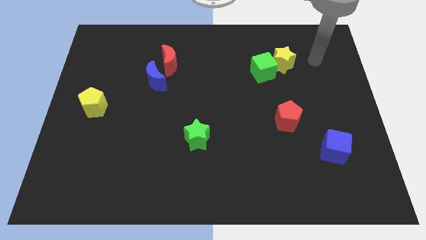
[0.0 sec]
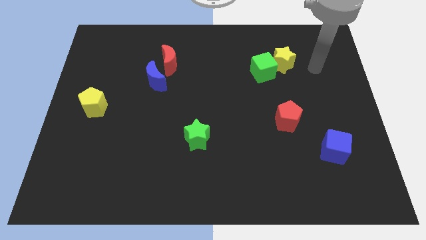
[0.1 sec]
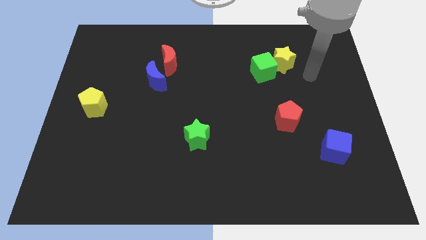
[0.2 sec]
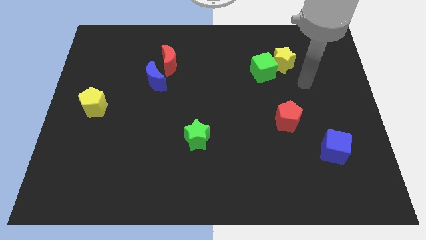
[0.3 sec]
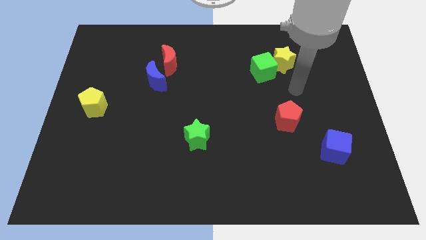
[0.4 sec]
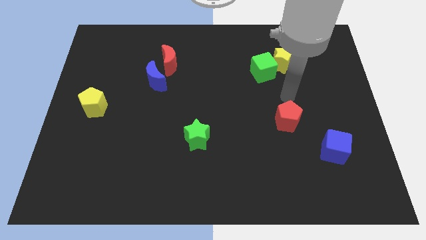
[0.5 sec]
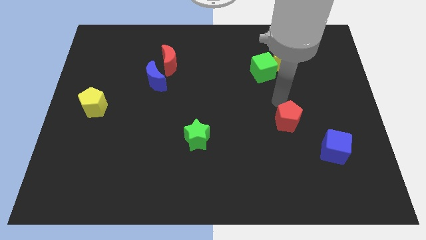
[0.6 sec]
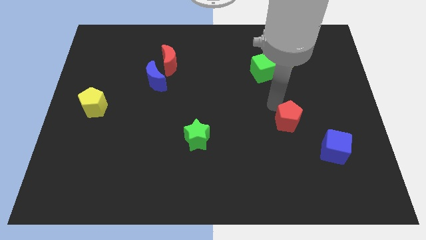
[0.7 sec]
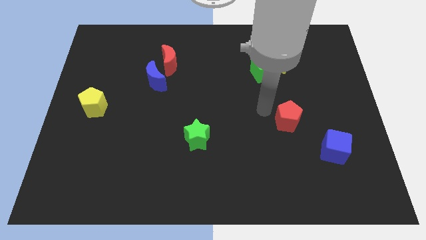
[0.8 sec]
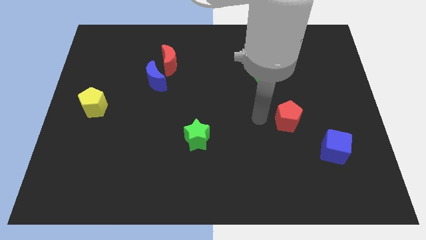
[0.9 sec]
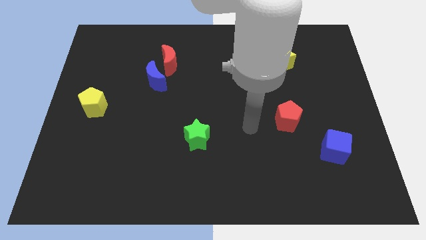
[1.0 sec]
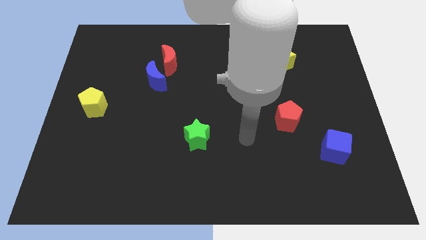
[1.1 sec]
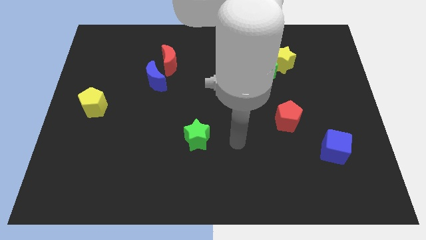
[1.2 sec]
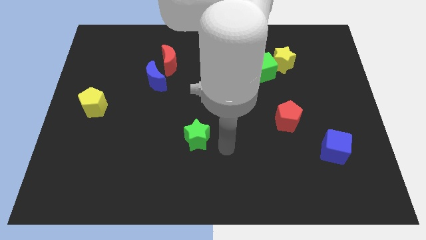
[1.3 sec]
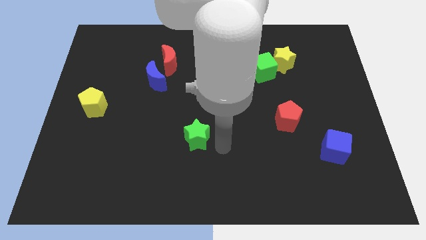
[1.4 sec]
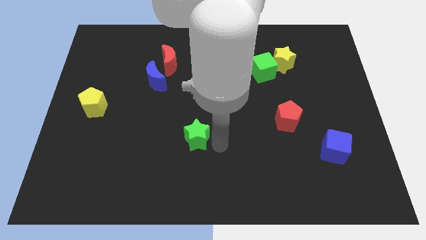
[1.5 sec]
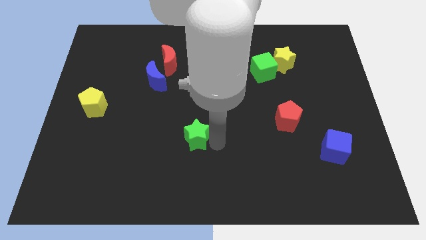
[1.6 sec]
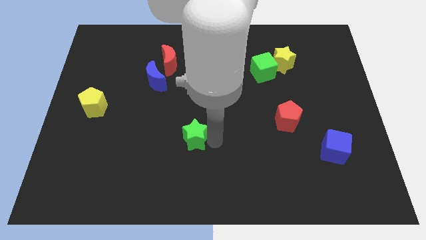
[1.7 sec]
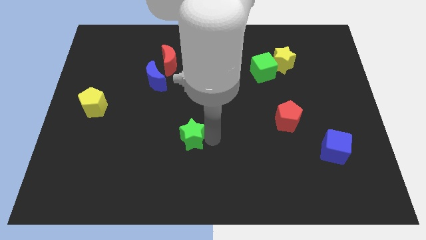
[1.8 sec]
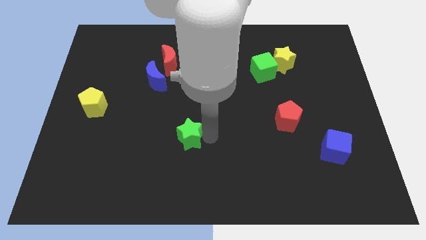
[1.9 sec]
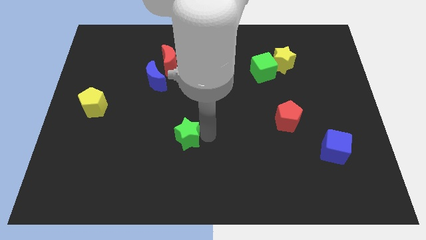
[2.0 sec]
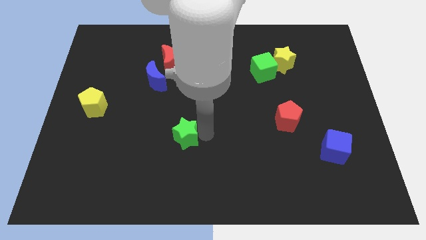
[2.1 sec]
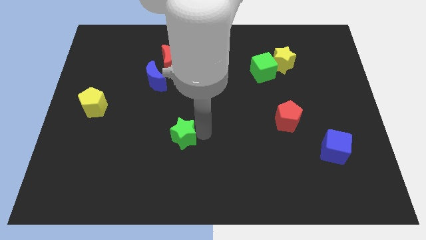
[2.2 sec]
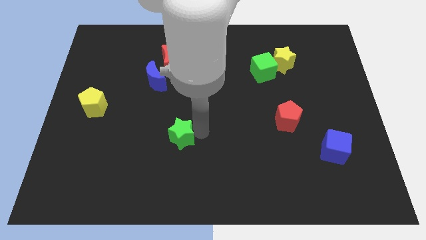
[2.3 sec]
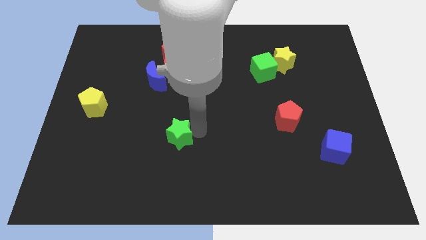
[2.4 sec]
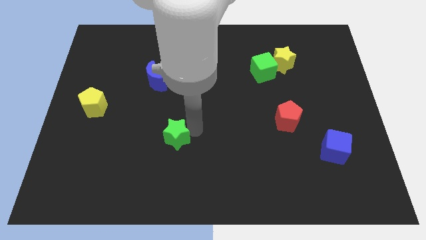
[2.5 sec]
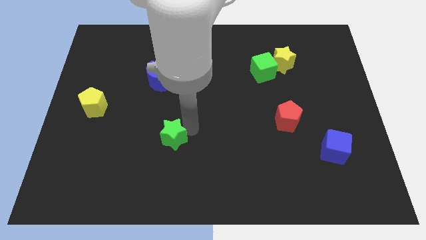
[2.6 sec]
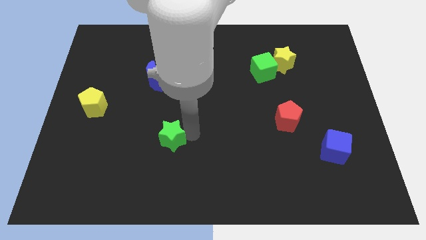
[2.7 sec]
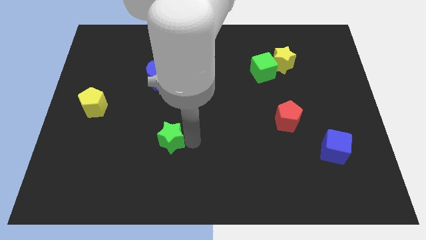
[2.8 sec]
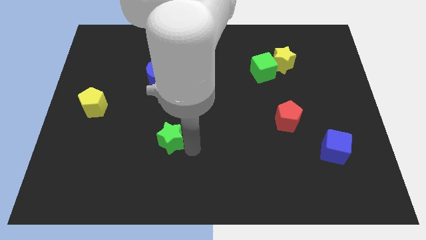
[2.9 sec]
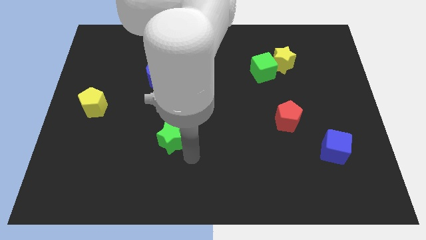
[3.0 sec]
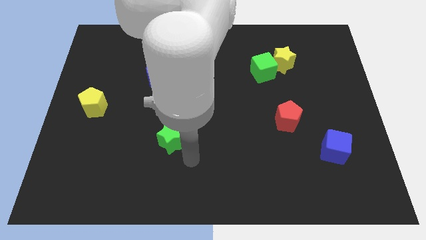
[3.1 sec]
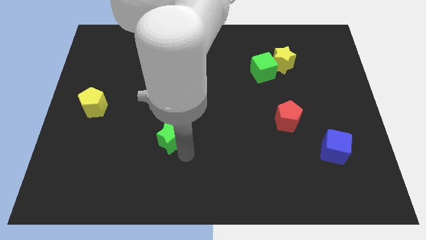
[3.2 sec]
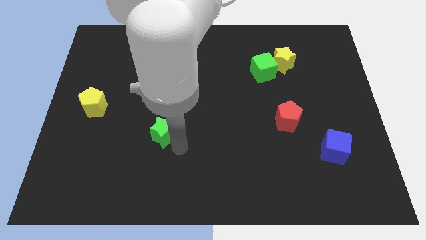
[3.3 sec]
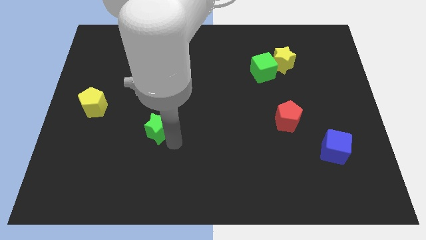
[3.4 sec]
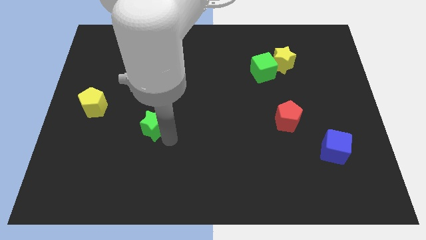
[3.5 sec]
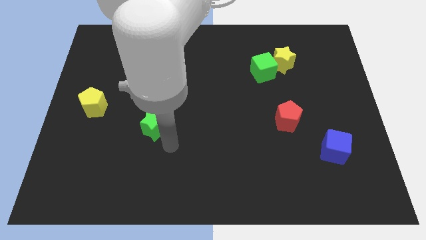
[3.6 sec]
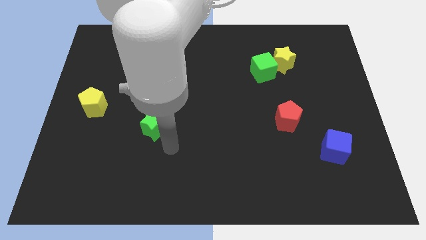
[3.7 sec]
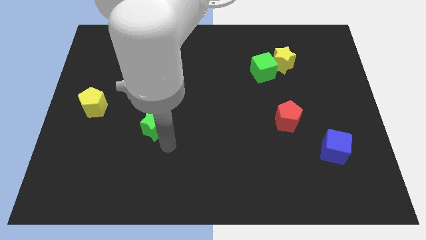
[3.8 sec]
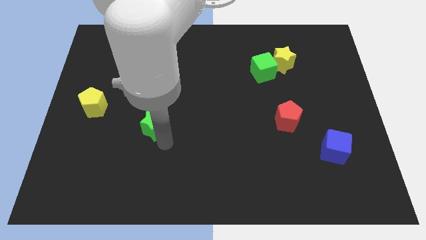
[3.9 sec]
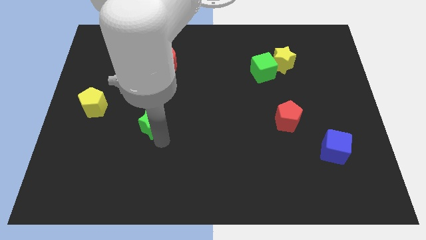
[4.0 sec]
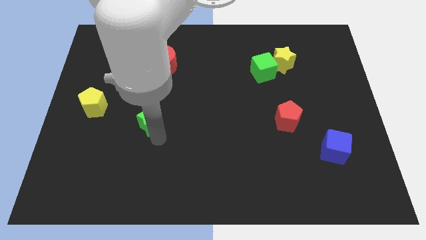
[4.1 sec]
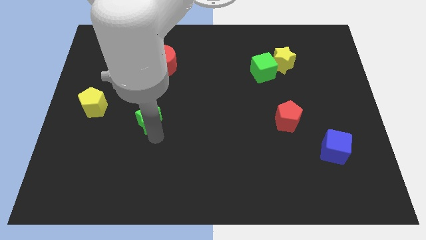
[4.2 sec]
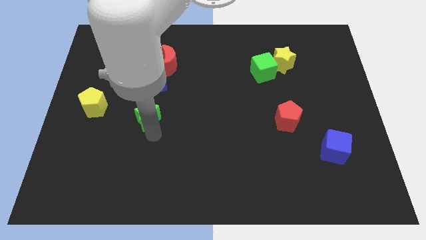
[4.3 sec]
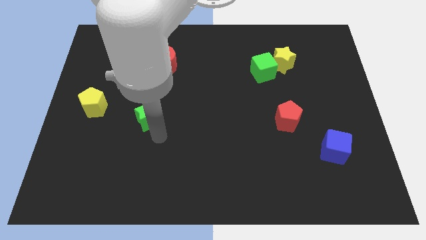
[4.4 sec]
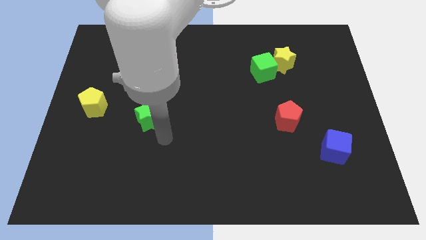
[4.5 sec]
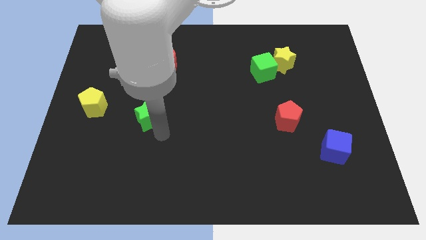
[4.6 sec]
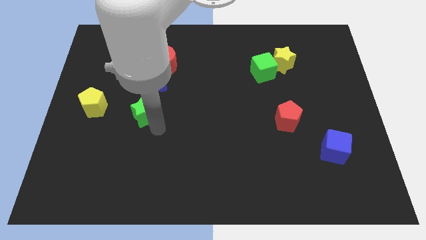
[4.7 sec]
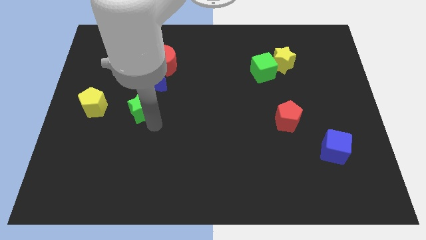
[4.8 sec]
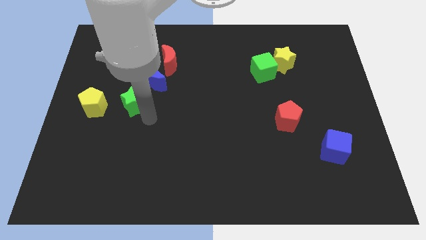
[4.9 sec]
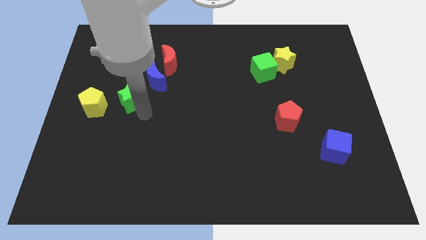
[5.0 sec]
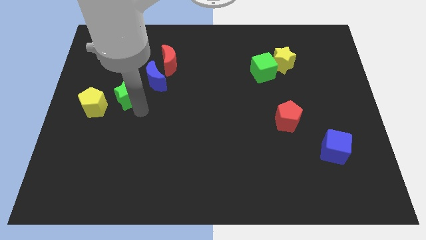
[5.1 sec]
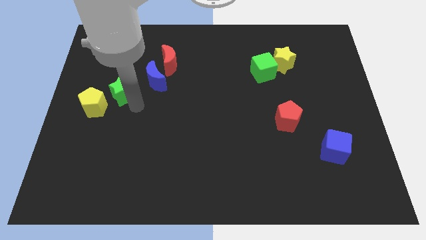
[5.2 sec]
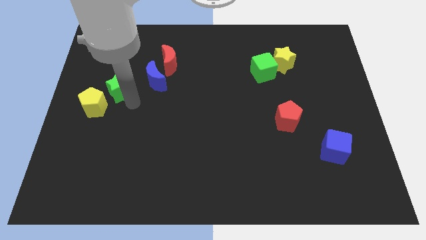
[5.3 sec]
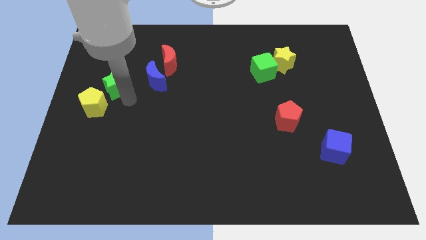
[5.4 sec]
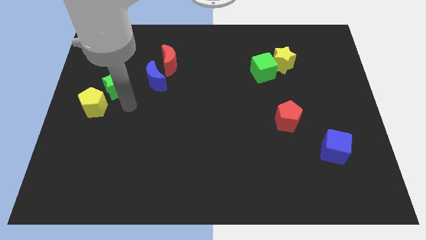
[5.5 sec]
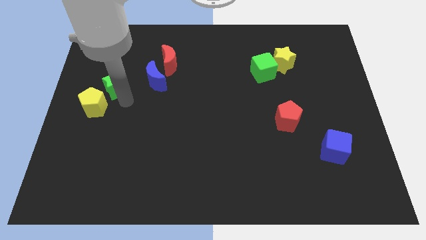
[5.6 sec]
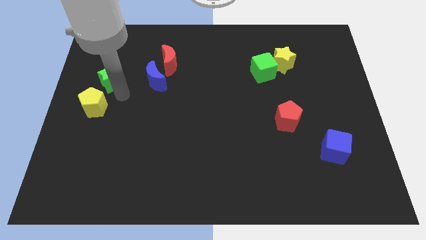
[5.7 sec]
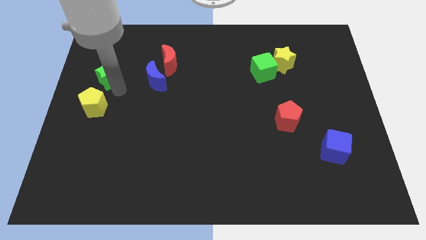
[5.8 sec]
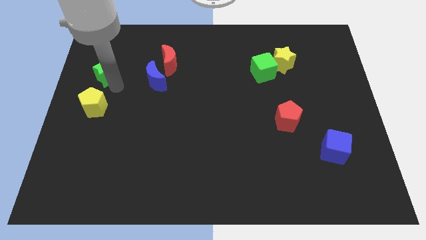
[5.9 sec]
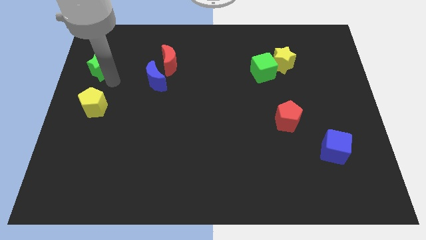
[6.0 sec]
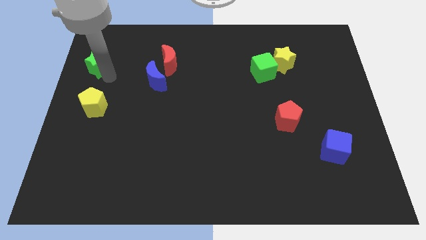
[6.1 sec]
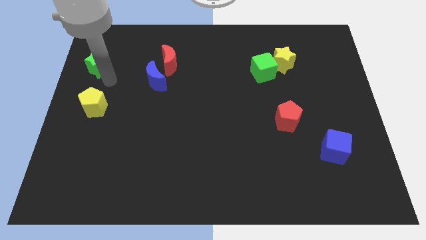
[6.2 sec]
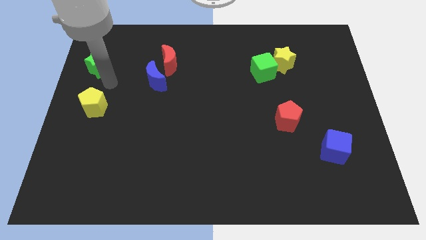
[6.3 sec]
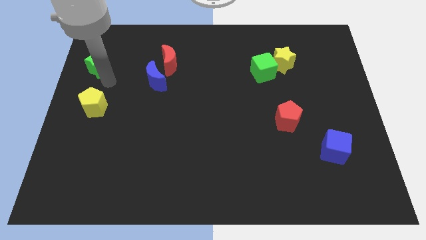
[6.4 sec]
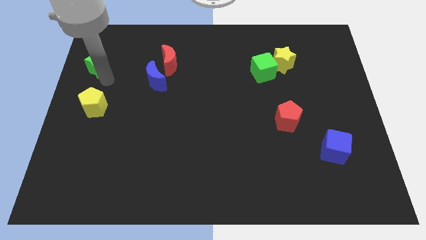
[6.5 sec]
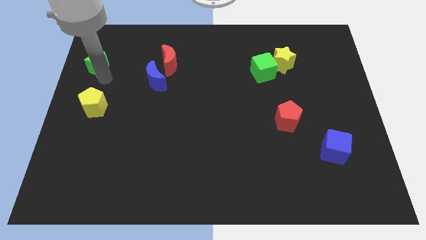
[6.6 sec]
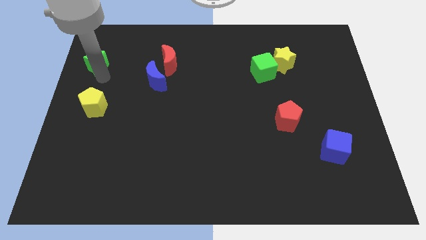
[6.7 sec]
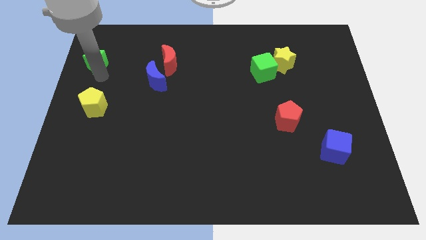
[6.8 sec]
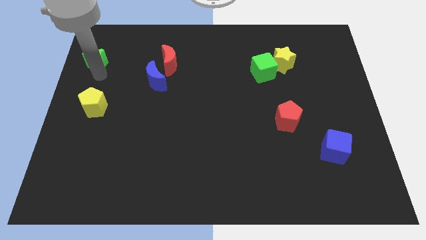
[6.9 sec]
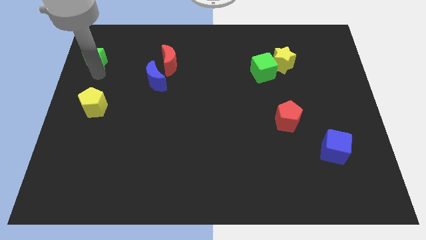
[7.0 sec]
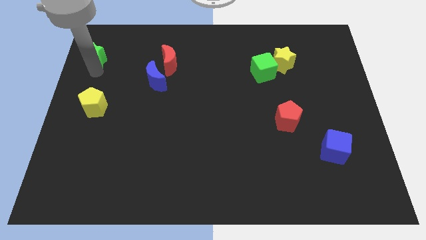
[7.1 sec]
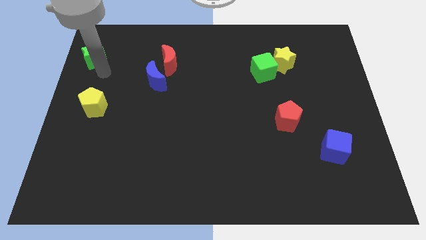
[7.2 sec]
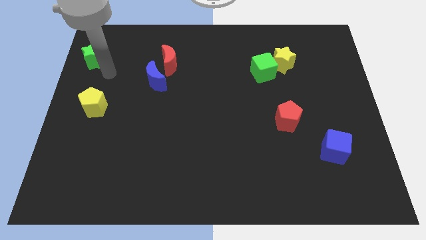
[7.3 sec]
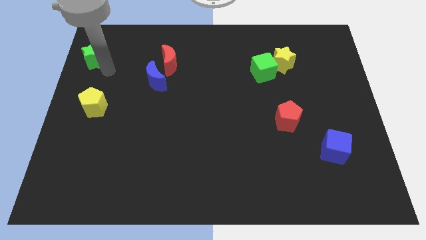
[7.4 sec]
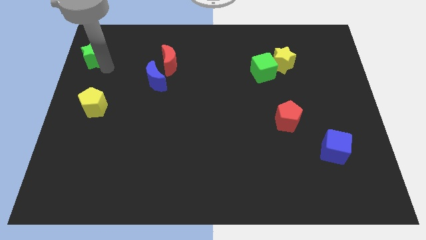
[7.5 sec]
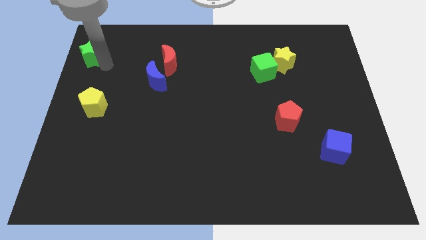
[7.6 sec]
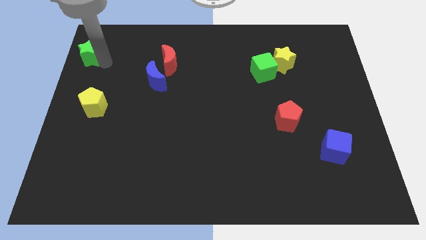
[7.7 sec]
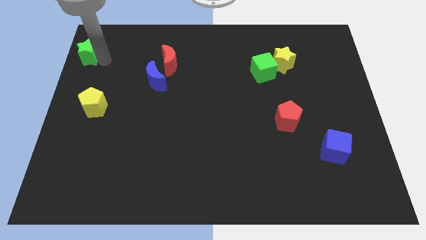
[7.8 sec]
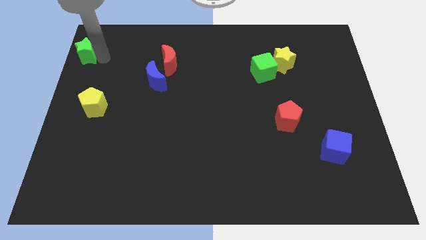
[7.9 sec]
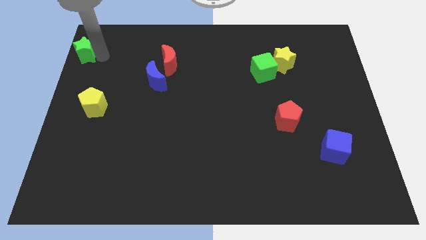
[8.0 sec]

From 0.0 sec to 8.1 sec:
push the green star to the top left corner
